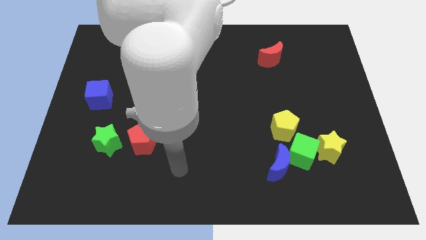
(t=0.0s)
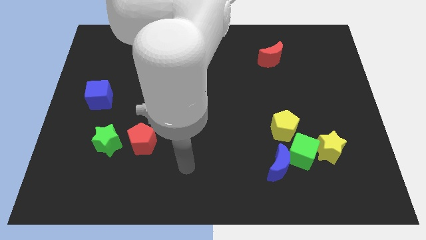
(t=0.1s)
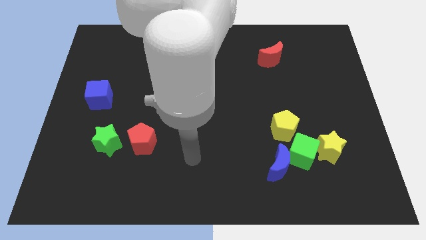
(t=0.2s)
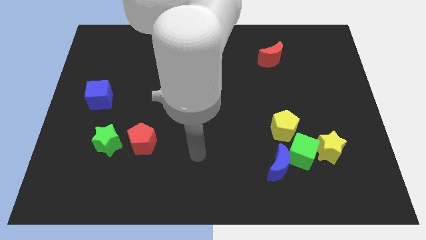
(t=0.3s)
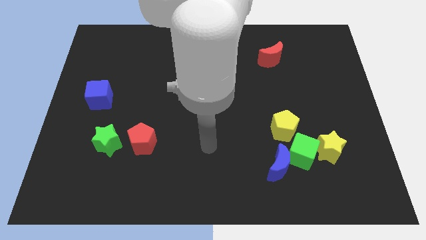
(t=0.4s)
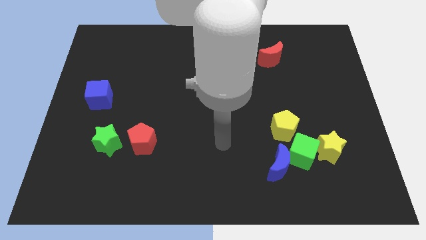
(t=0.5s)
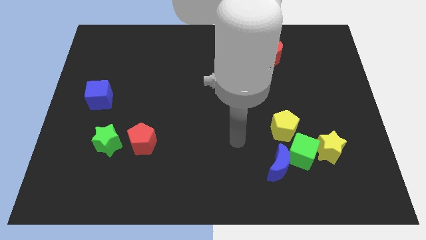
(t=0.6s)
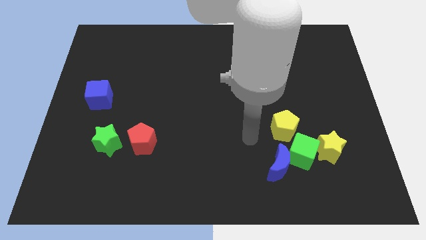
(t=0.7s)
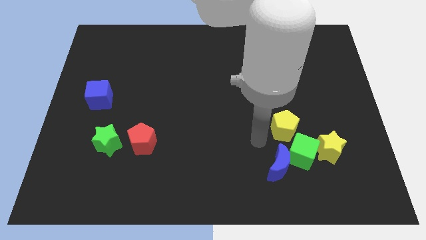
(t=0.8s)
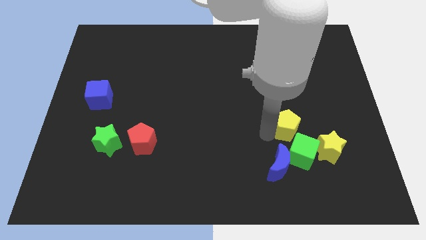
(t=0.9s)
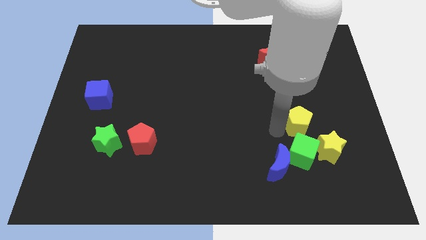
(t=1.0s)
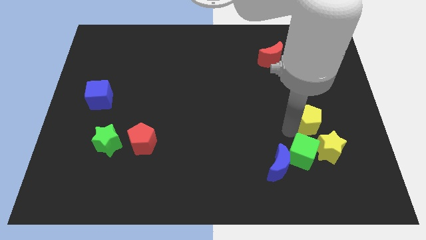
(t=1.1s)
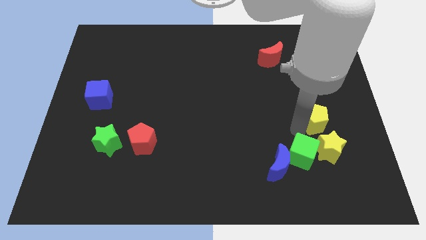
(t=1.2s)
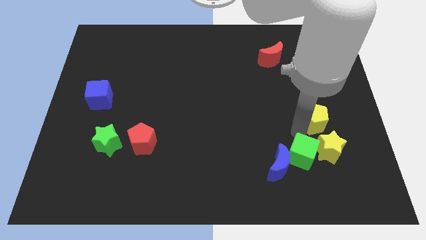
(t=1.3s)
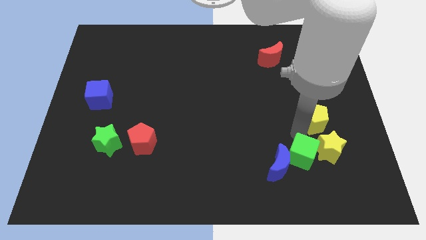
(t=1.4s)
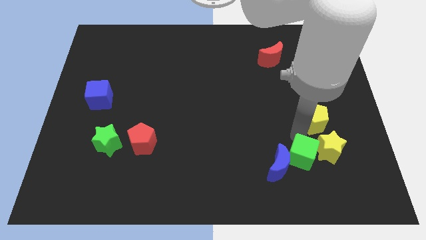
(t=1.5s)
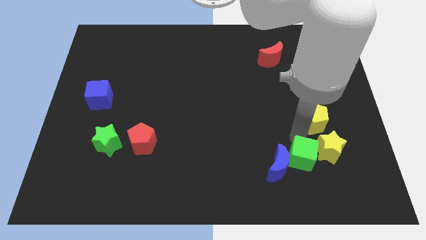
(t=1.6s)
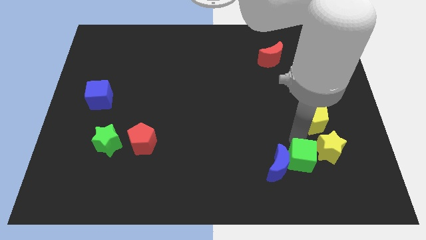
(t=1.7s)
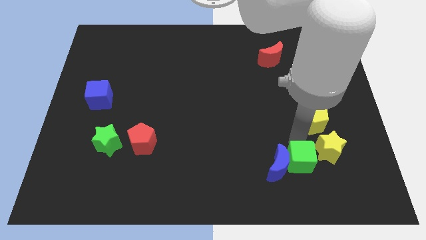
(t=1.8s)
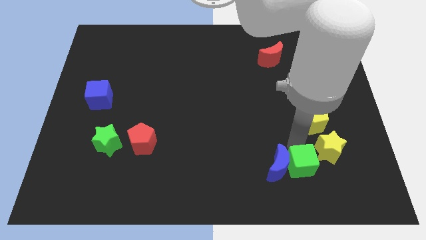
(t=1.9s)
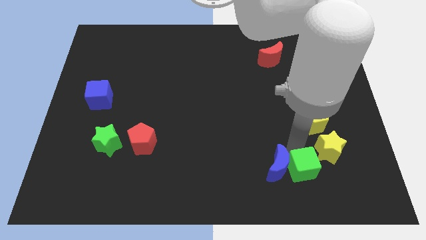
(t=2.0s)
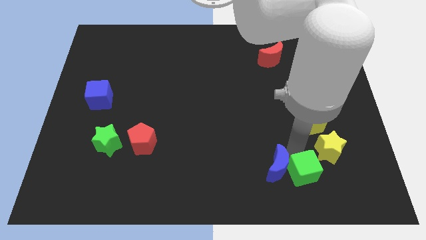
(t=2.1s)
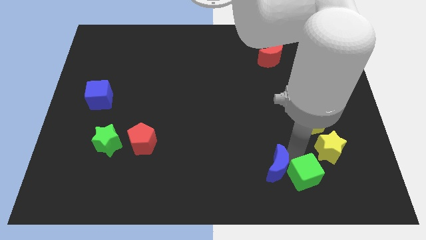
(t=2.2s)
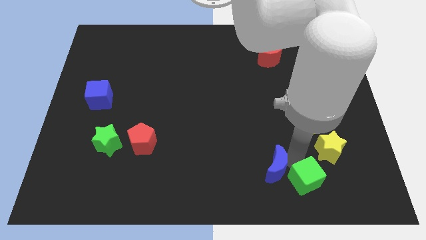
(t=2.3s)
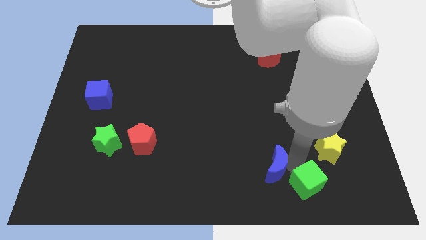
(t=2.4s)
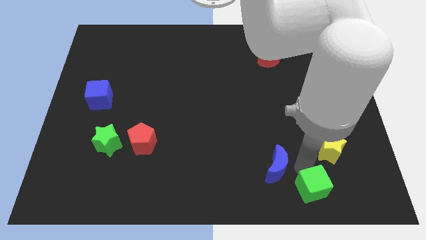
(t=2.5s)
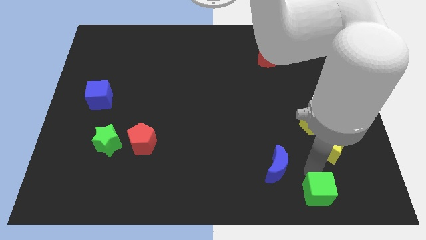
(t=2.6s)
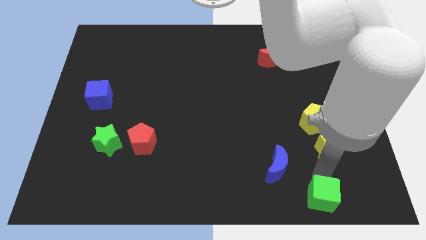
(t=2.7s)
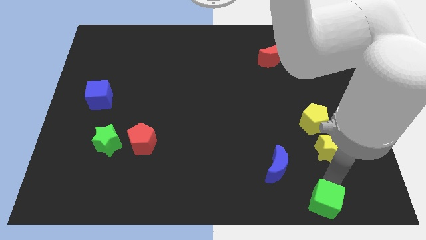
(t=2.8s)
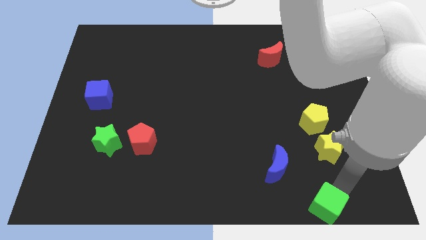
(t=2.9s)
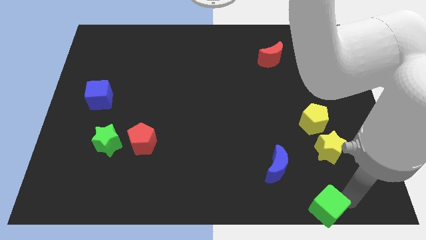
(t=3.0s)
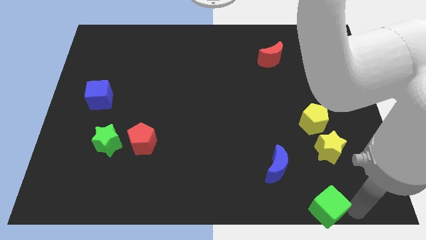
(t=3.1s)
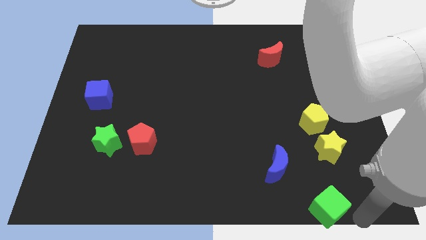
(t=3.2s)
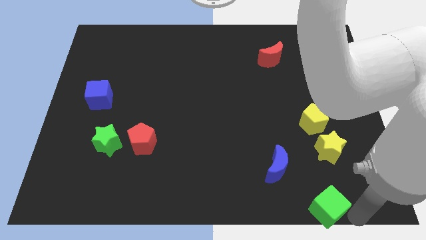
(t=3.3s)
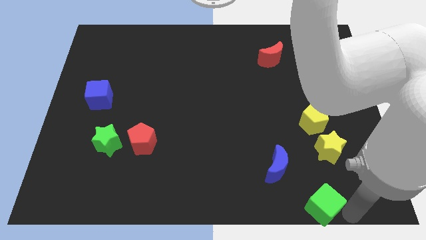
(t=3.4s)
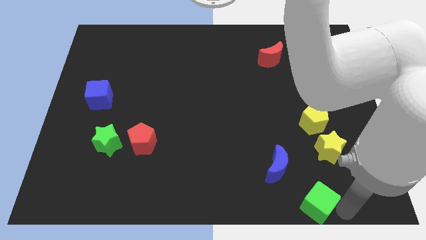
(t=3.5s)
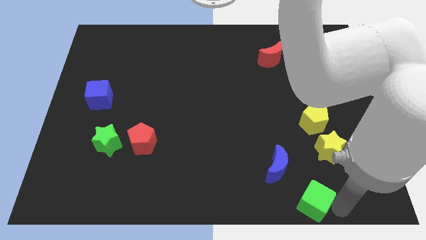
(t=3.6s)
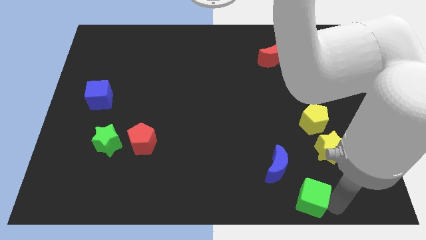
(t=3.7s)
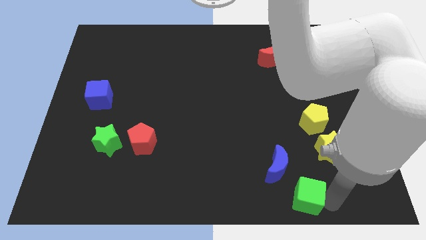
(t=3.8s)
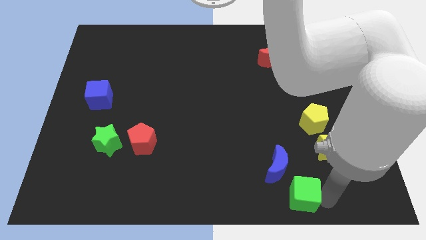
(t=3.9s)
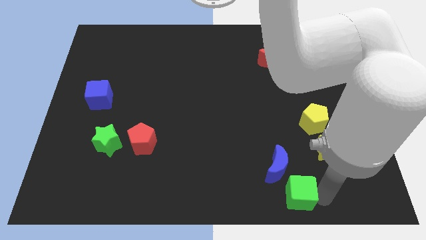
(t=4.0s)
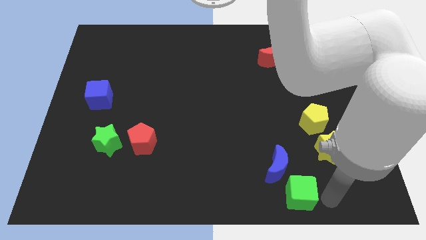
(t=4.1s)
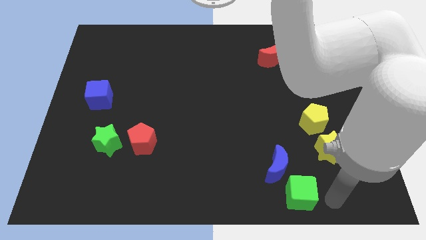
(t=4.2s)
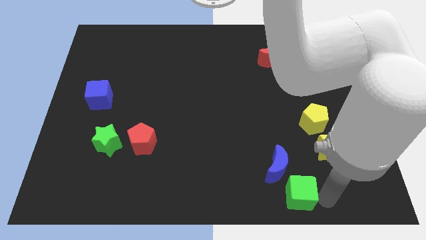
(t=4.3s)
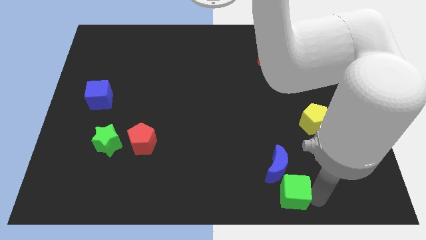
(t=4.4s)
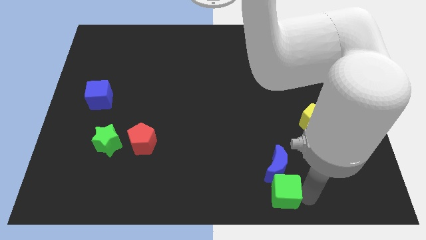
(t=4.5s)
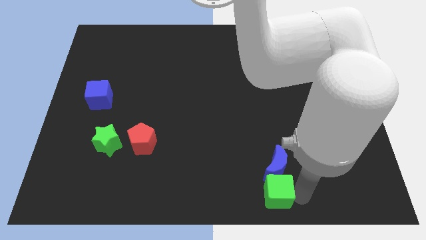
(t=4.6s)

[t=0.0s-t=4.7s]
slide the green cube to the bottom

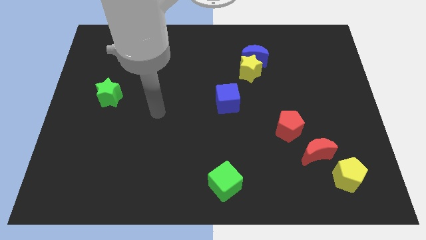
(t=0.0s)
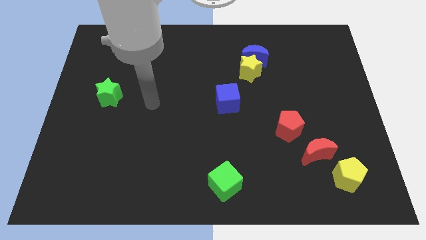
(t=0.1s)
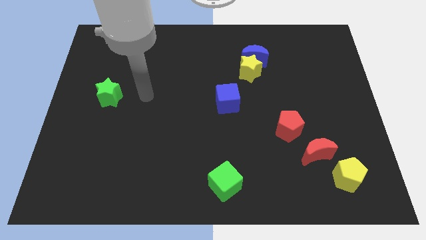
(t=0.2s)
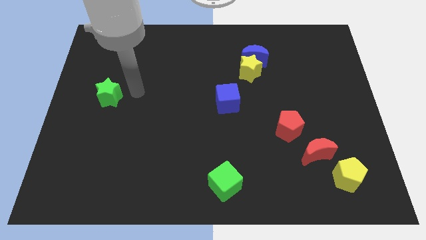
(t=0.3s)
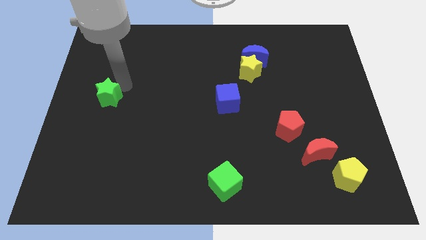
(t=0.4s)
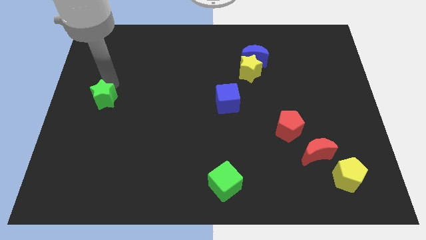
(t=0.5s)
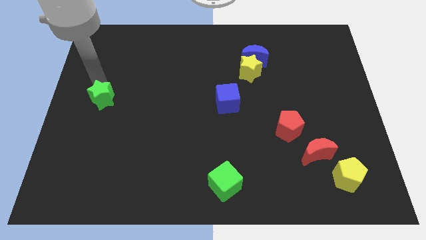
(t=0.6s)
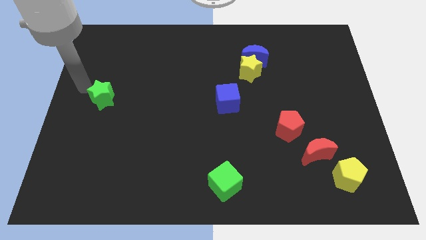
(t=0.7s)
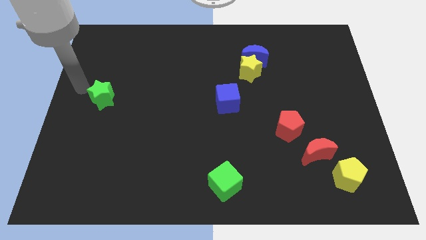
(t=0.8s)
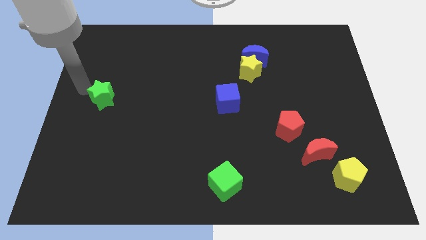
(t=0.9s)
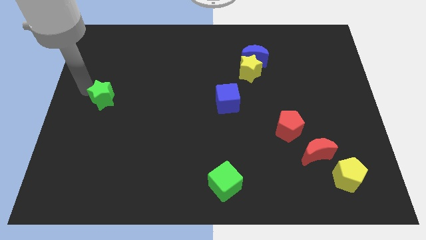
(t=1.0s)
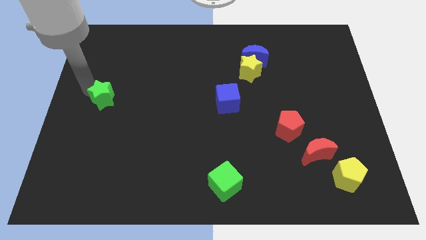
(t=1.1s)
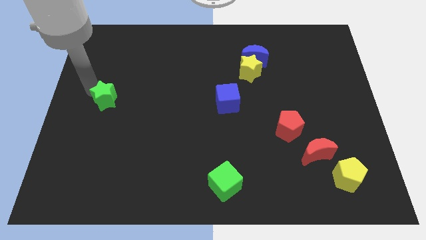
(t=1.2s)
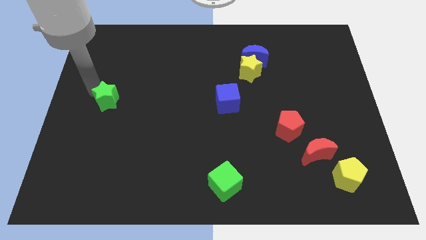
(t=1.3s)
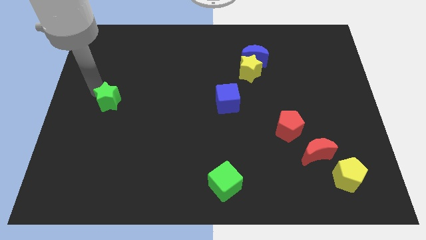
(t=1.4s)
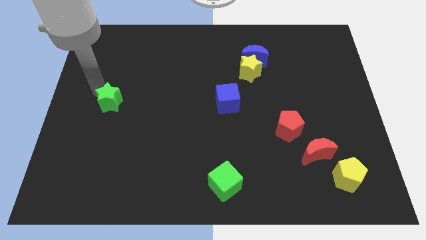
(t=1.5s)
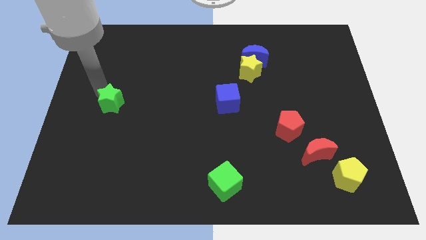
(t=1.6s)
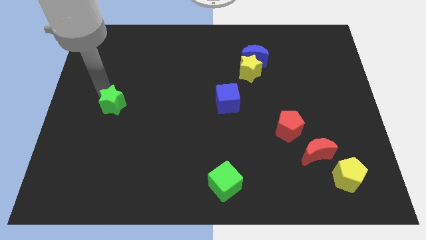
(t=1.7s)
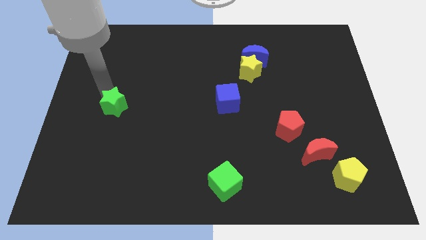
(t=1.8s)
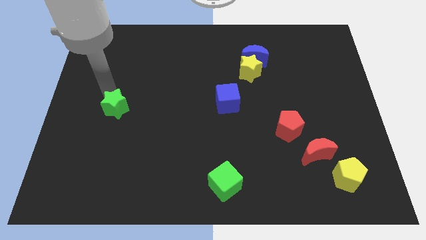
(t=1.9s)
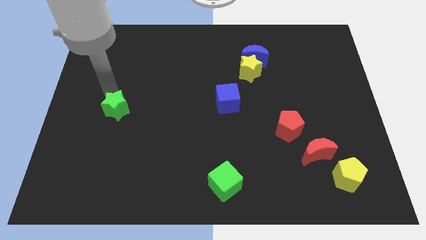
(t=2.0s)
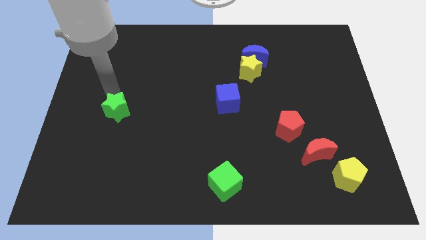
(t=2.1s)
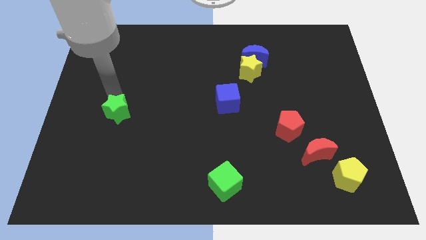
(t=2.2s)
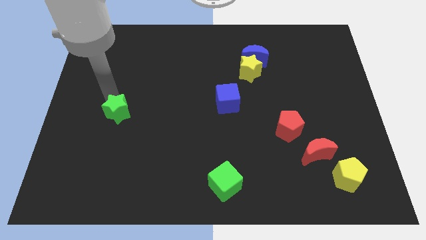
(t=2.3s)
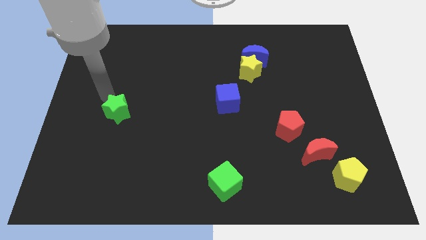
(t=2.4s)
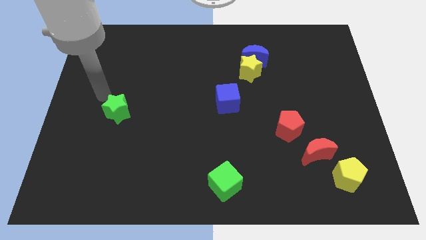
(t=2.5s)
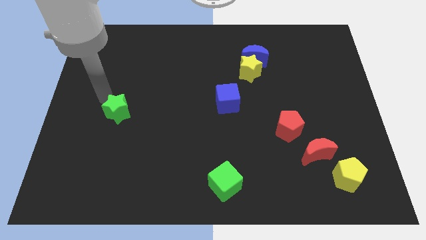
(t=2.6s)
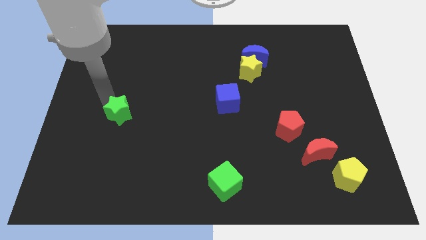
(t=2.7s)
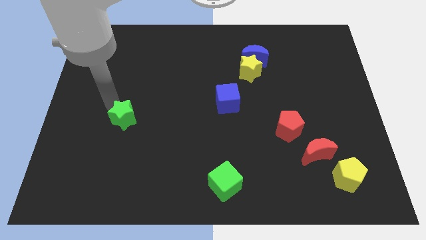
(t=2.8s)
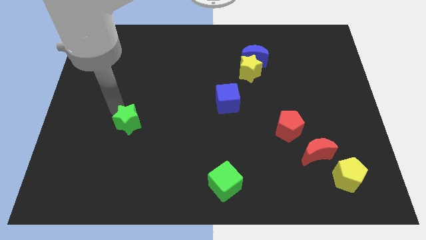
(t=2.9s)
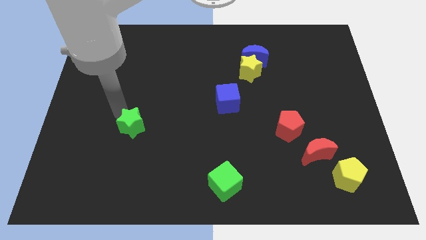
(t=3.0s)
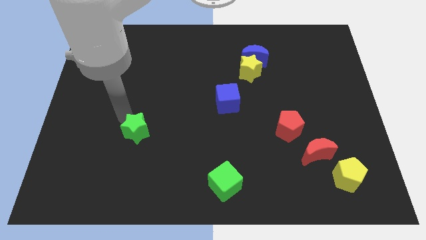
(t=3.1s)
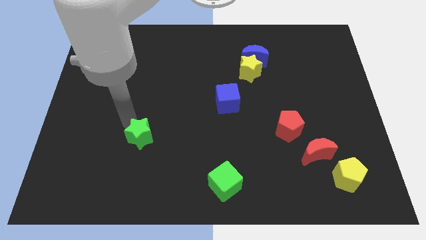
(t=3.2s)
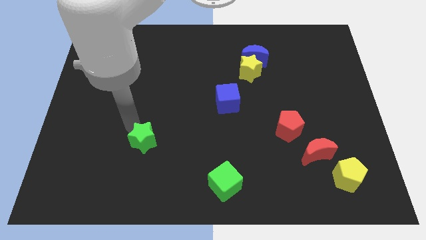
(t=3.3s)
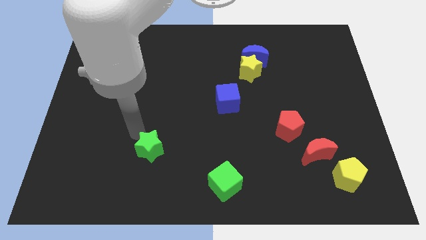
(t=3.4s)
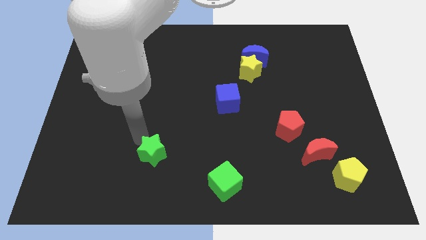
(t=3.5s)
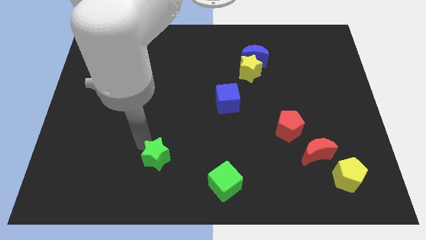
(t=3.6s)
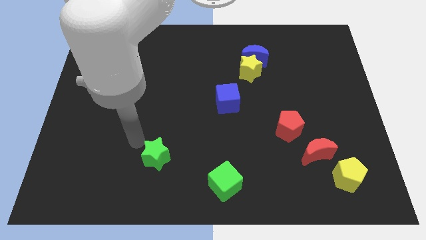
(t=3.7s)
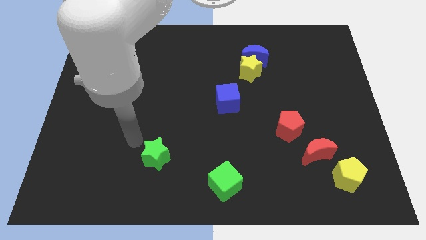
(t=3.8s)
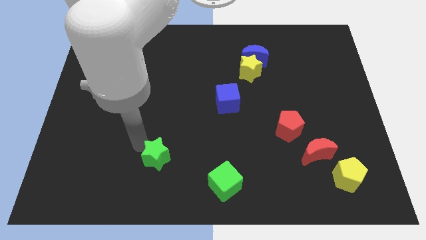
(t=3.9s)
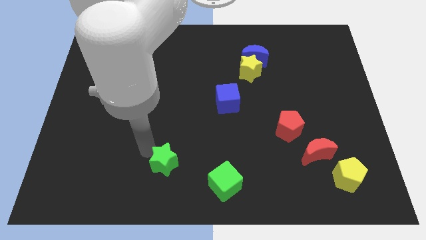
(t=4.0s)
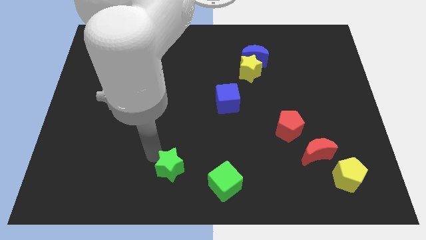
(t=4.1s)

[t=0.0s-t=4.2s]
move the green star to the bottom
